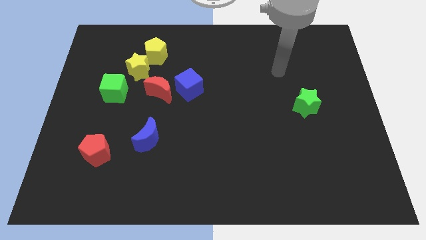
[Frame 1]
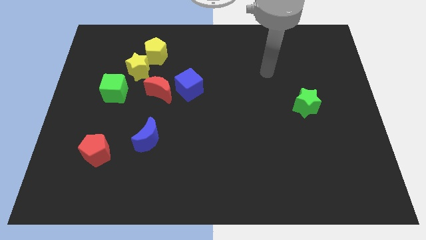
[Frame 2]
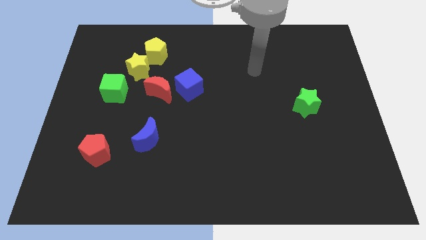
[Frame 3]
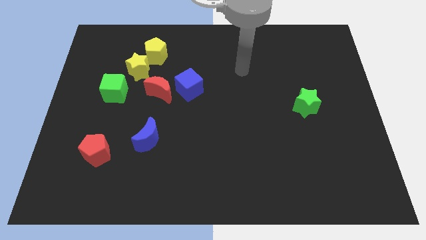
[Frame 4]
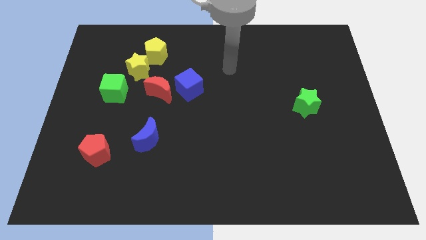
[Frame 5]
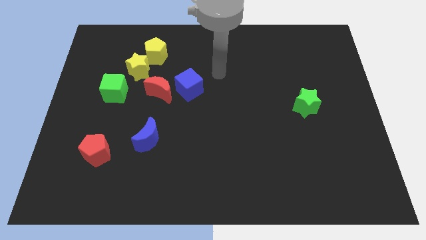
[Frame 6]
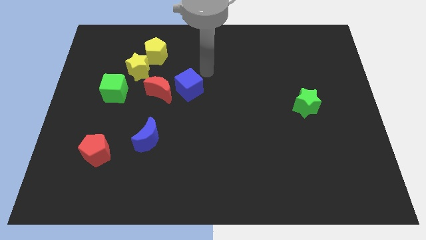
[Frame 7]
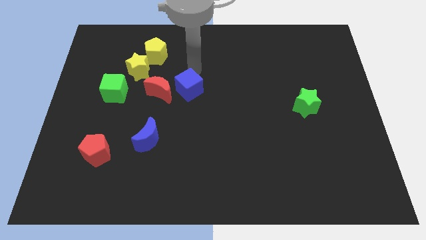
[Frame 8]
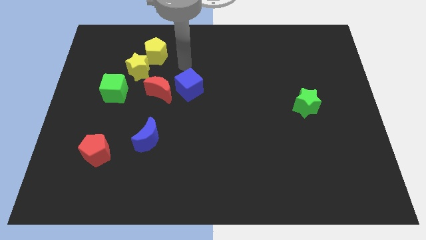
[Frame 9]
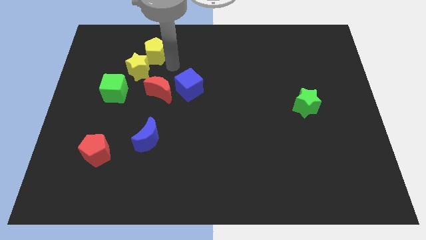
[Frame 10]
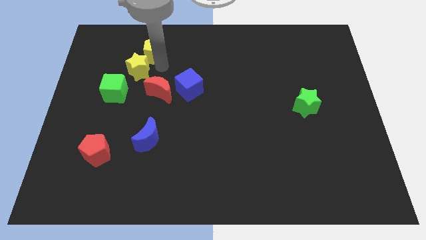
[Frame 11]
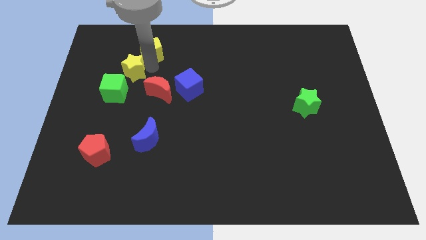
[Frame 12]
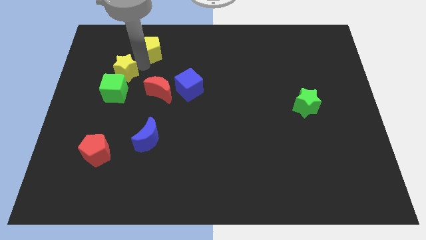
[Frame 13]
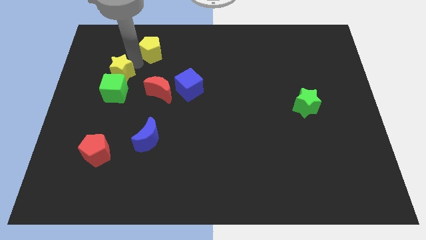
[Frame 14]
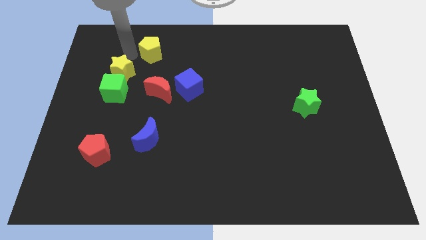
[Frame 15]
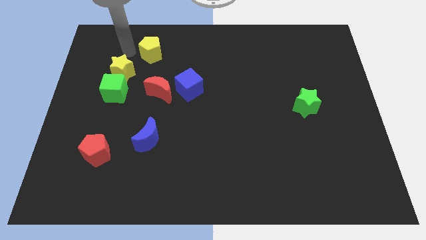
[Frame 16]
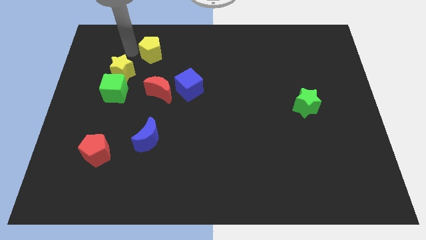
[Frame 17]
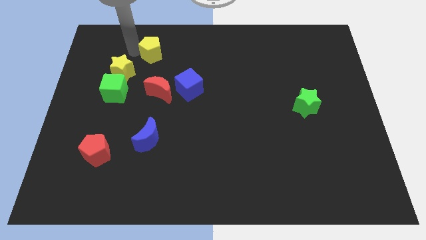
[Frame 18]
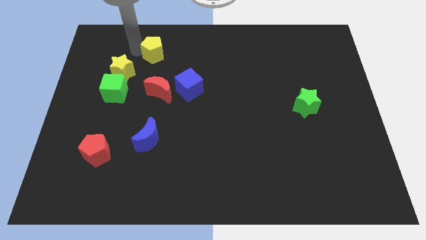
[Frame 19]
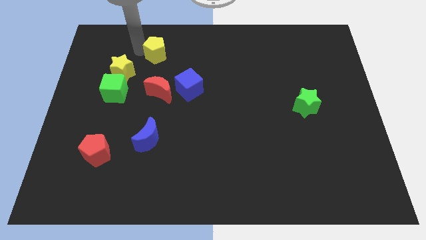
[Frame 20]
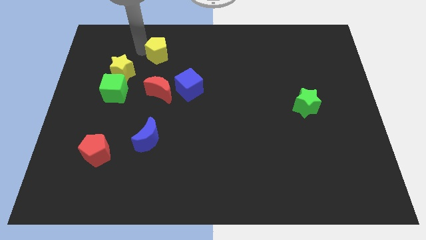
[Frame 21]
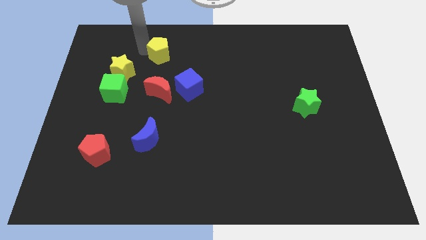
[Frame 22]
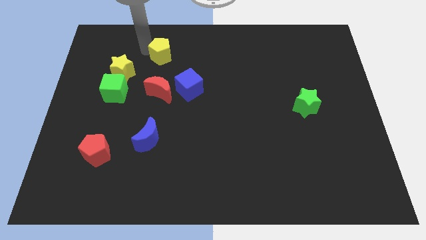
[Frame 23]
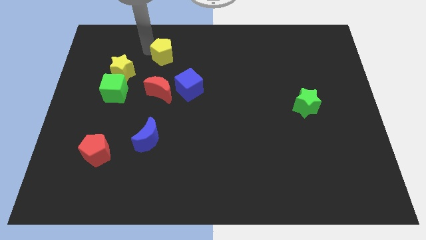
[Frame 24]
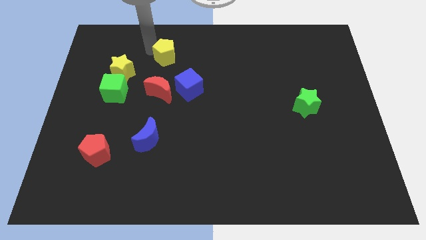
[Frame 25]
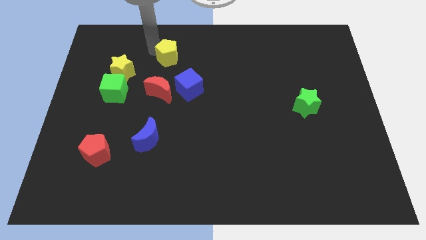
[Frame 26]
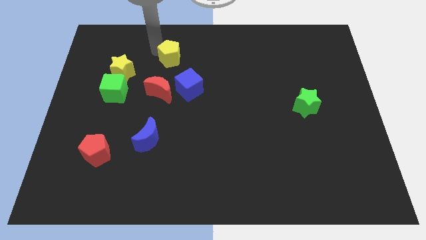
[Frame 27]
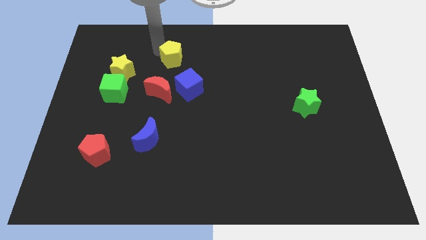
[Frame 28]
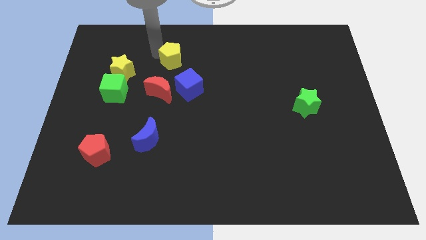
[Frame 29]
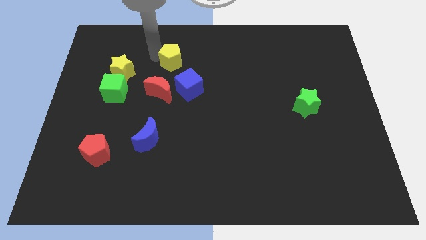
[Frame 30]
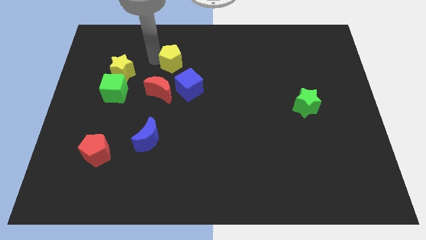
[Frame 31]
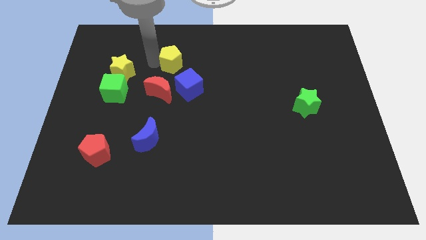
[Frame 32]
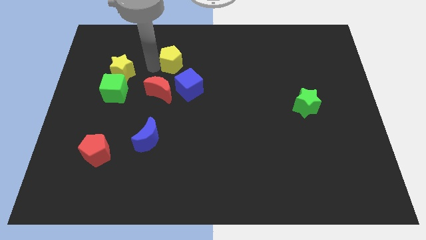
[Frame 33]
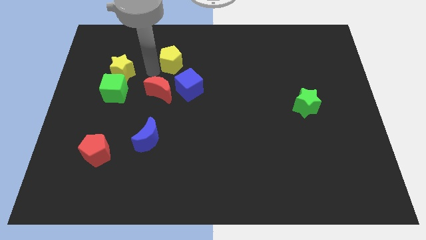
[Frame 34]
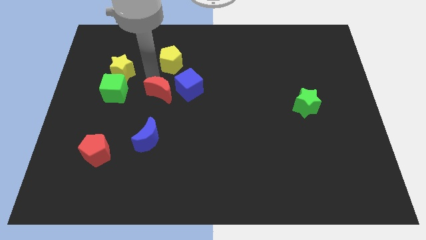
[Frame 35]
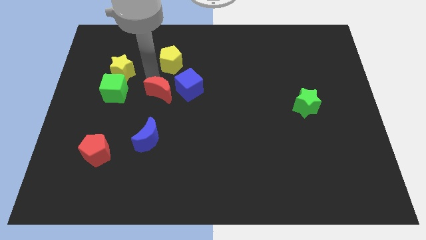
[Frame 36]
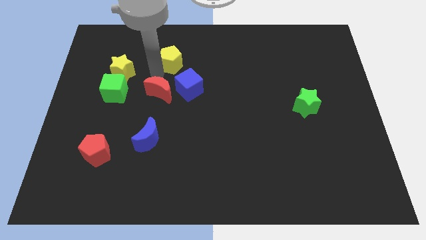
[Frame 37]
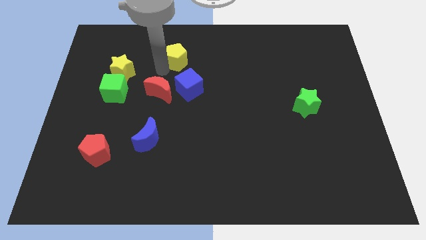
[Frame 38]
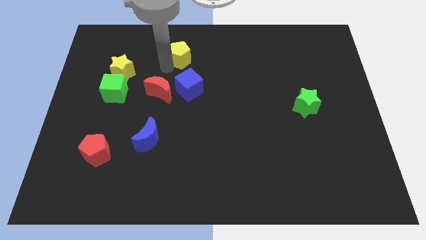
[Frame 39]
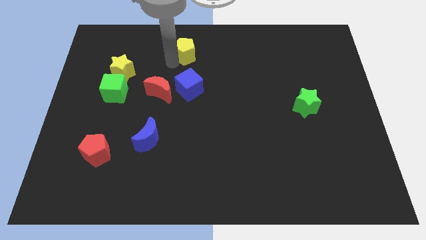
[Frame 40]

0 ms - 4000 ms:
push the yellow pentagon right somewhat

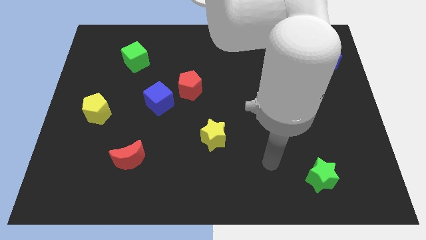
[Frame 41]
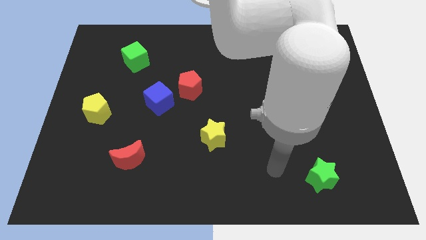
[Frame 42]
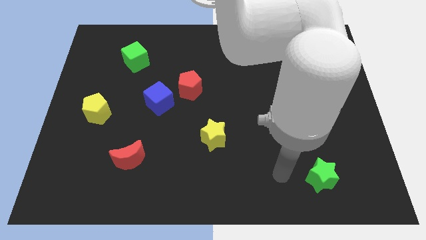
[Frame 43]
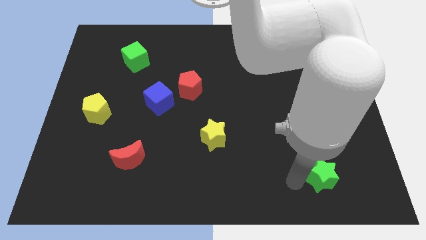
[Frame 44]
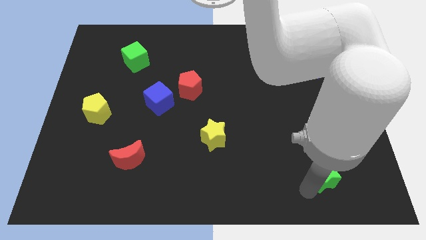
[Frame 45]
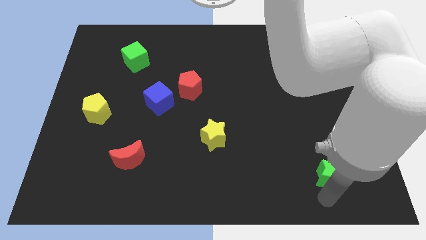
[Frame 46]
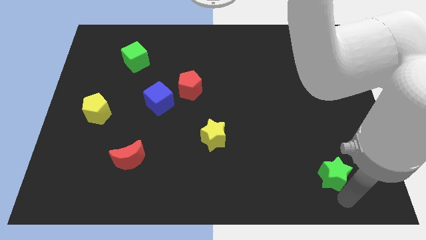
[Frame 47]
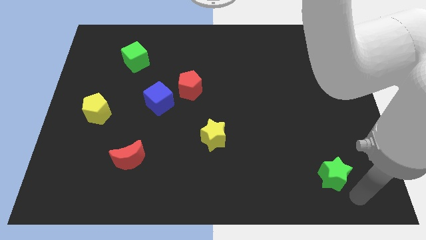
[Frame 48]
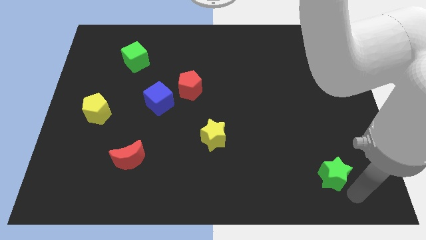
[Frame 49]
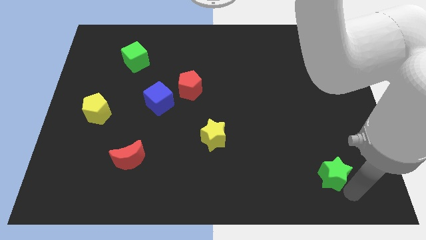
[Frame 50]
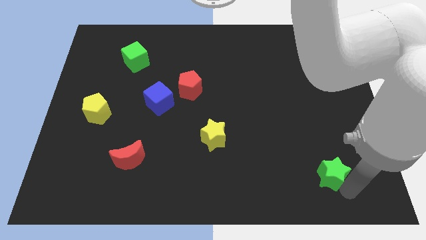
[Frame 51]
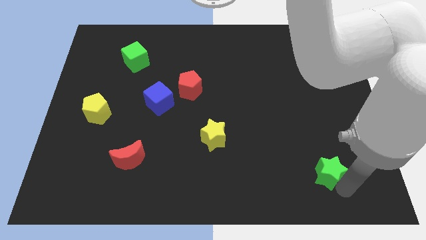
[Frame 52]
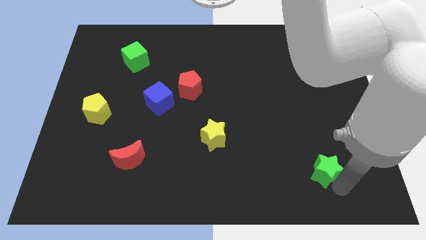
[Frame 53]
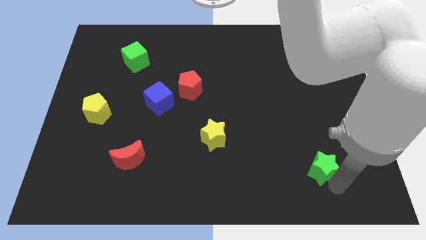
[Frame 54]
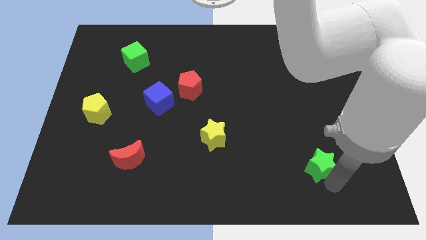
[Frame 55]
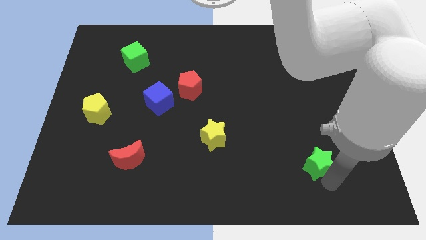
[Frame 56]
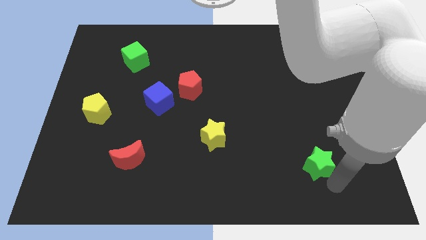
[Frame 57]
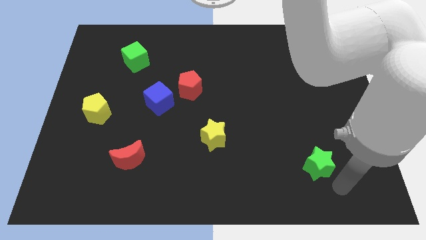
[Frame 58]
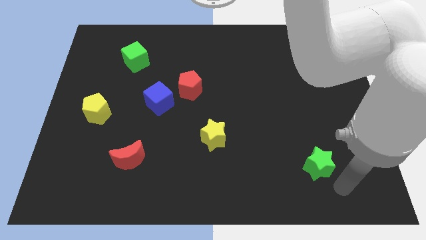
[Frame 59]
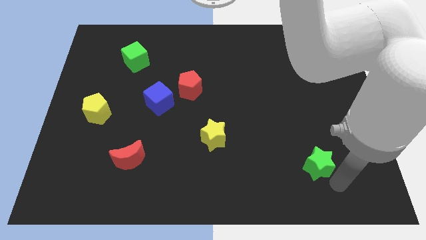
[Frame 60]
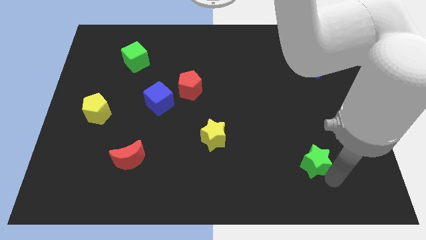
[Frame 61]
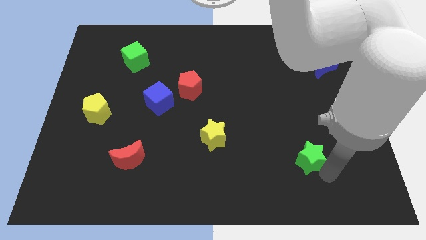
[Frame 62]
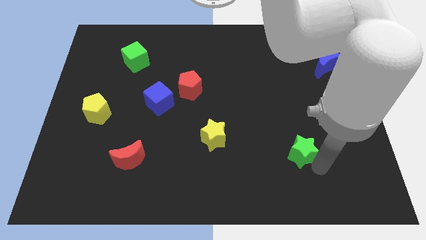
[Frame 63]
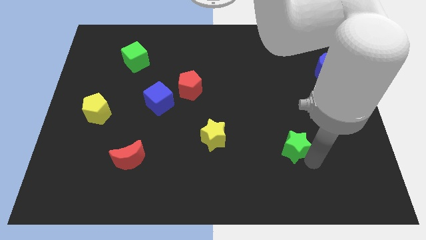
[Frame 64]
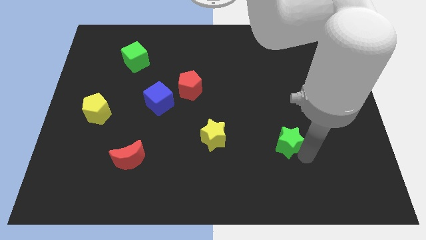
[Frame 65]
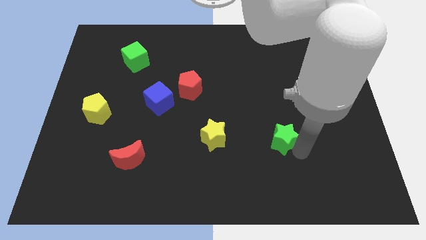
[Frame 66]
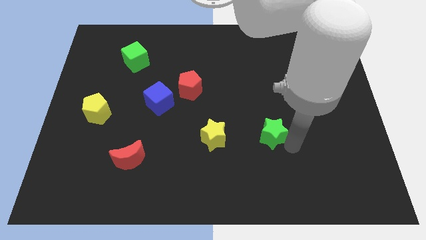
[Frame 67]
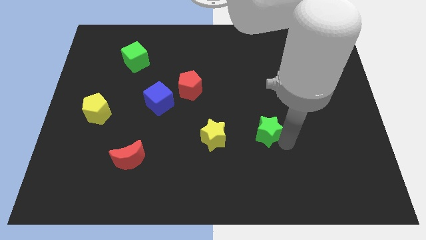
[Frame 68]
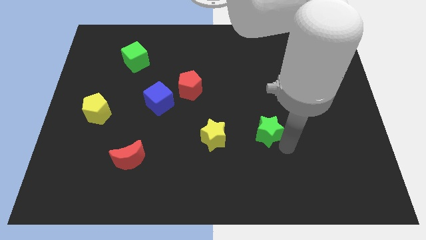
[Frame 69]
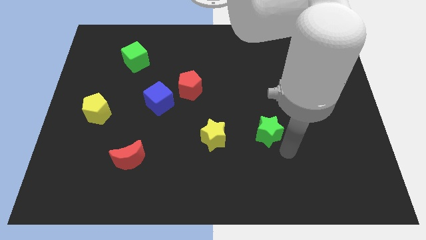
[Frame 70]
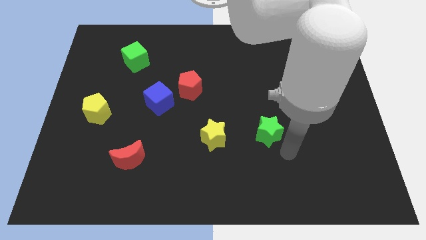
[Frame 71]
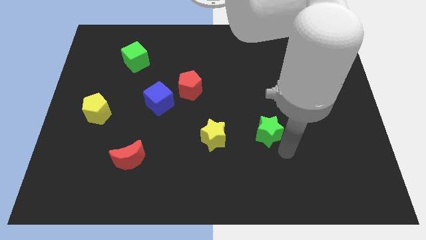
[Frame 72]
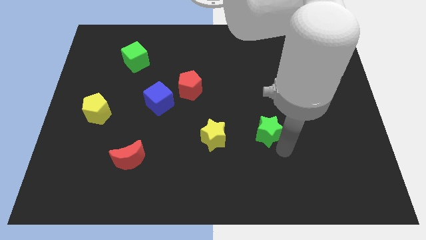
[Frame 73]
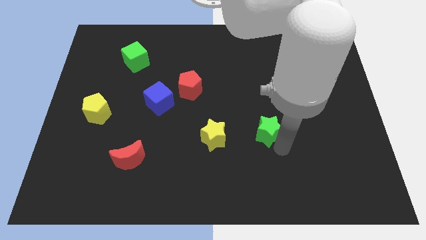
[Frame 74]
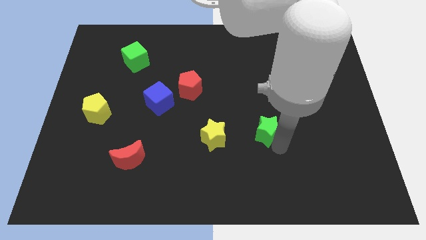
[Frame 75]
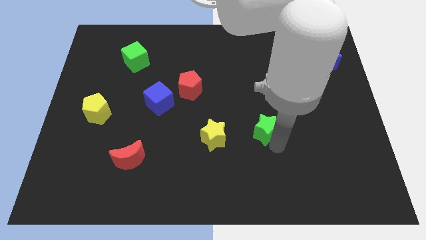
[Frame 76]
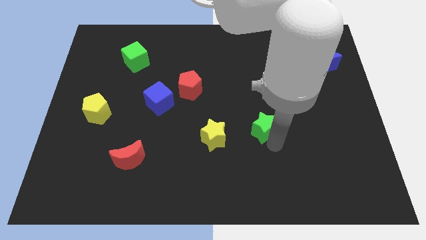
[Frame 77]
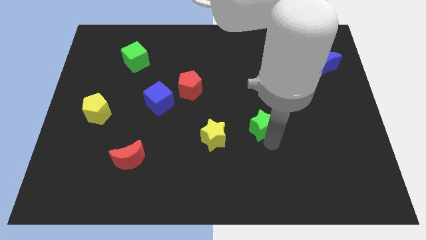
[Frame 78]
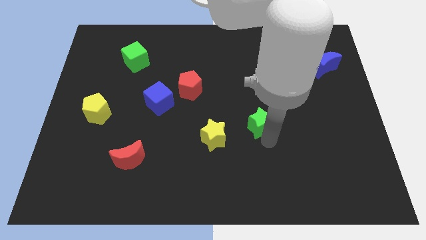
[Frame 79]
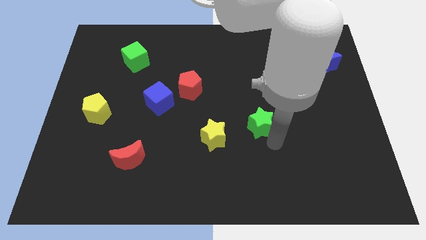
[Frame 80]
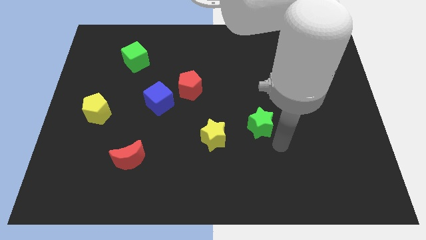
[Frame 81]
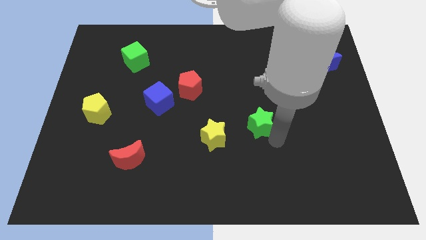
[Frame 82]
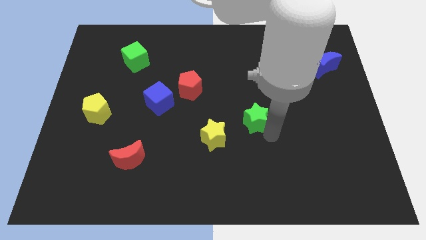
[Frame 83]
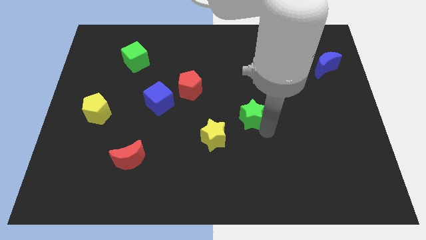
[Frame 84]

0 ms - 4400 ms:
push the green star upwards and then to the left
